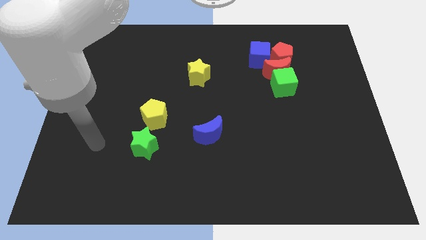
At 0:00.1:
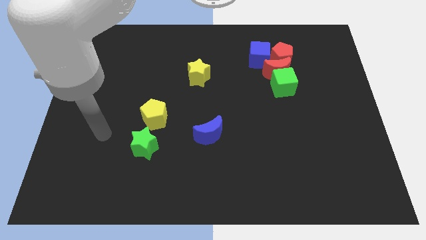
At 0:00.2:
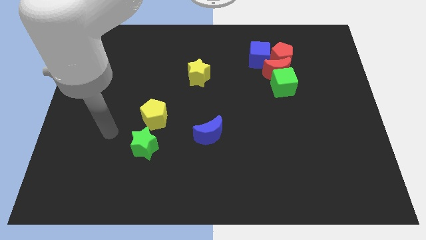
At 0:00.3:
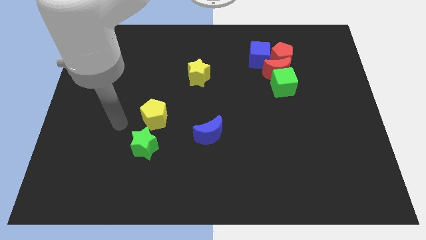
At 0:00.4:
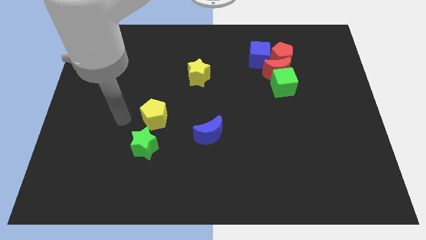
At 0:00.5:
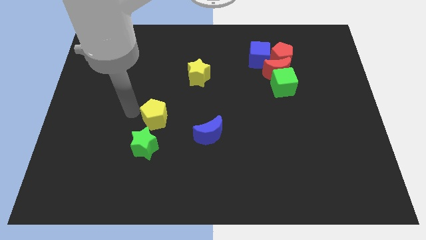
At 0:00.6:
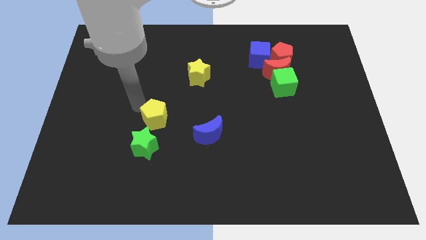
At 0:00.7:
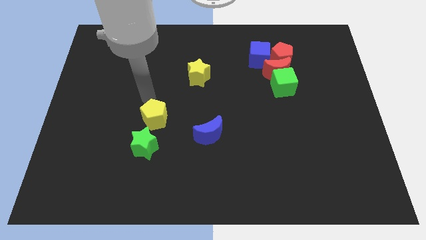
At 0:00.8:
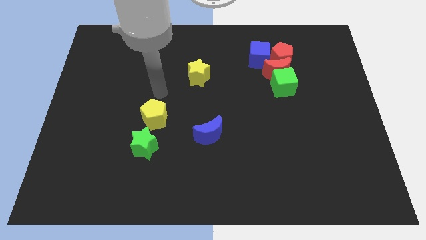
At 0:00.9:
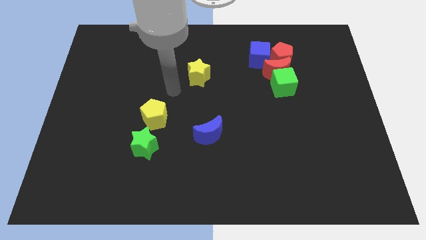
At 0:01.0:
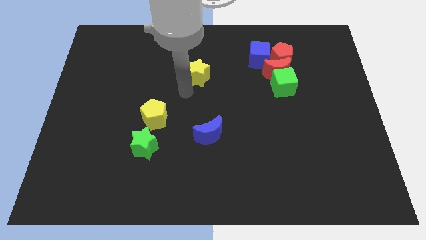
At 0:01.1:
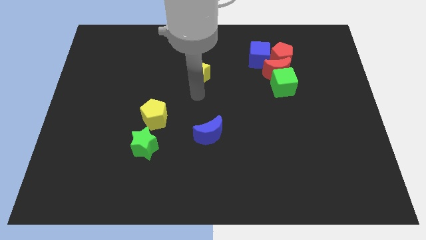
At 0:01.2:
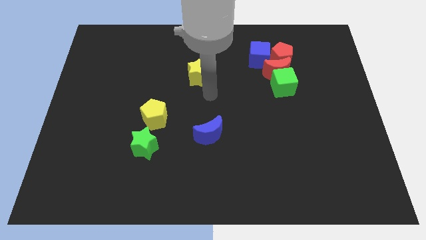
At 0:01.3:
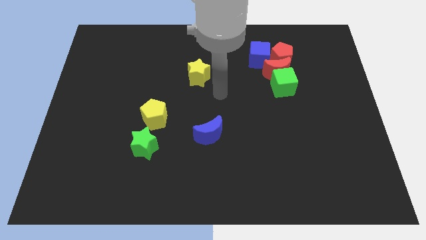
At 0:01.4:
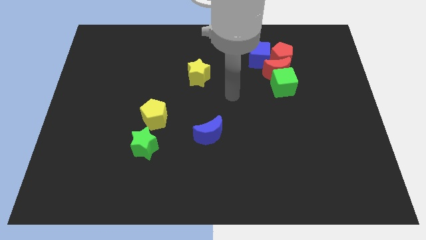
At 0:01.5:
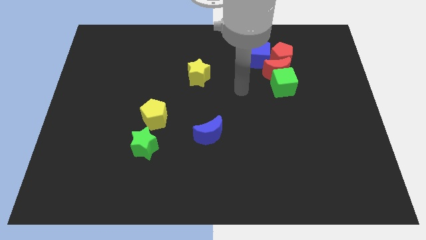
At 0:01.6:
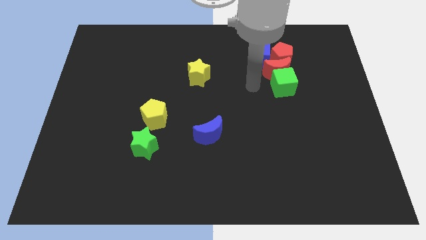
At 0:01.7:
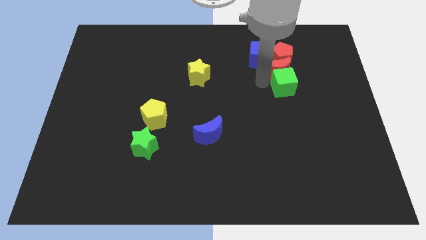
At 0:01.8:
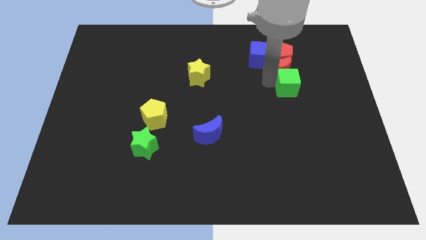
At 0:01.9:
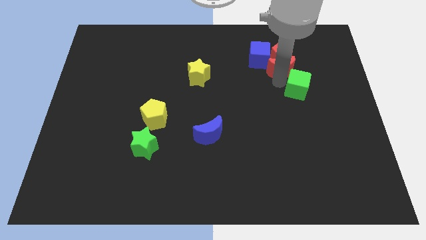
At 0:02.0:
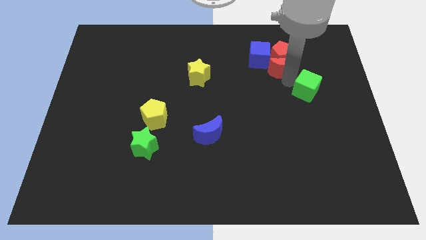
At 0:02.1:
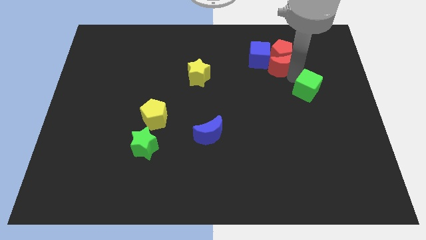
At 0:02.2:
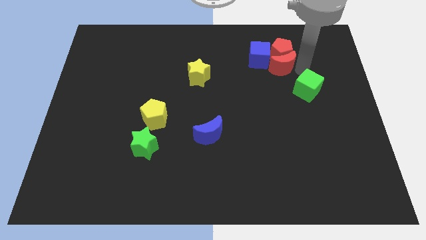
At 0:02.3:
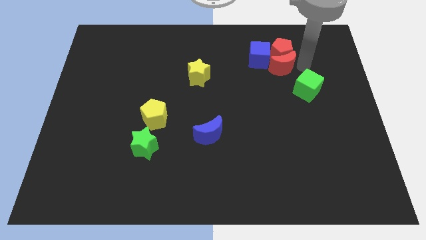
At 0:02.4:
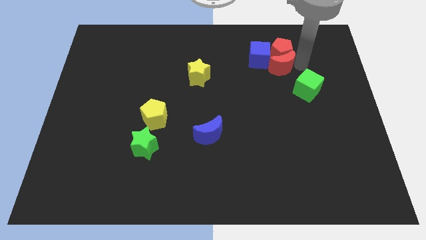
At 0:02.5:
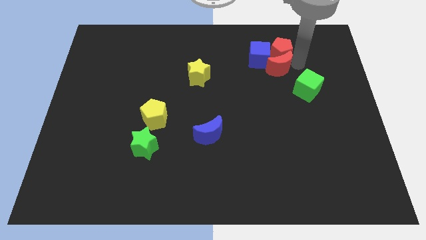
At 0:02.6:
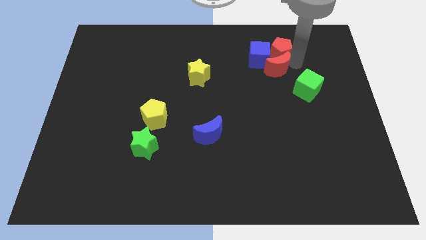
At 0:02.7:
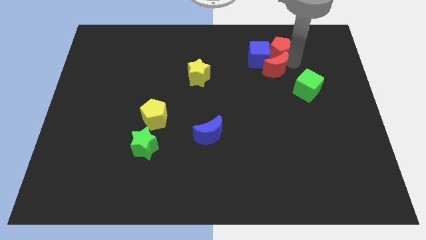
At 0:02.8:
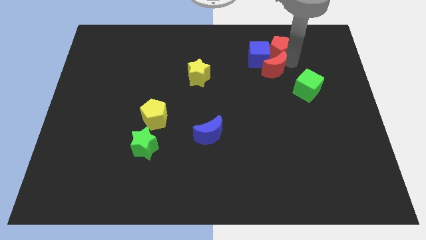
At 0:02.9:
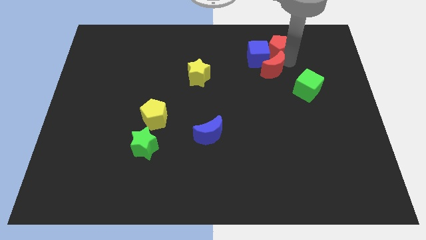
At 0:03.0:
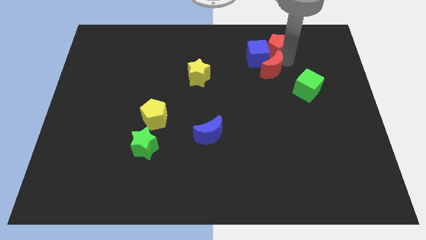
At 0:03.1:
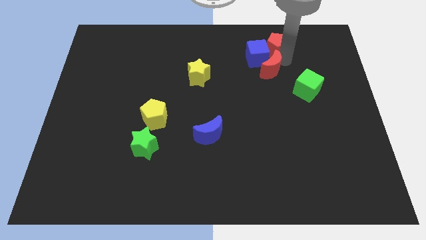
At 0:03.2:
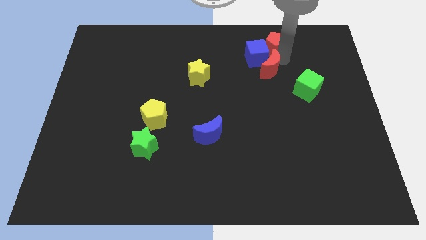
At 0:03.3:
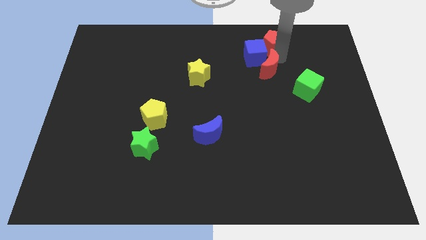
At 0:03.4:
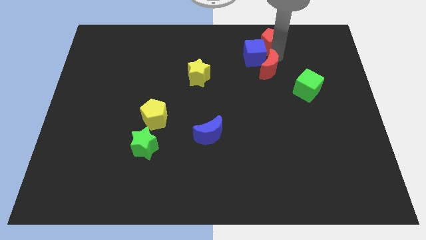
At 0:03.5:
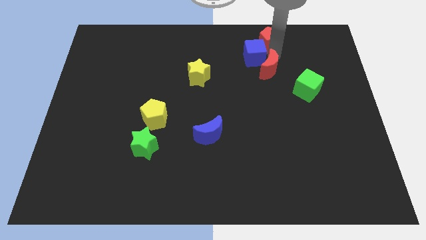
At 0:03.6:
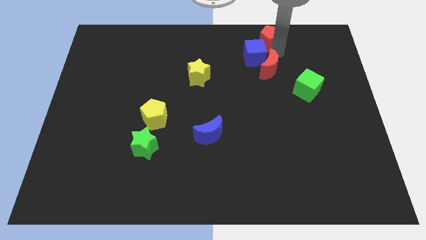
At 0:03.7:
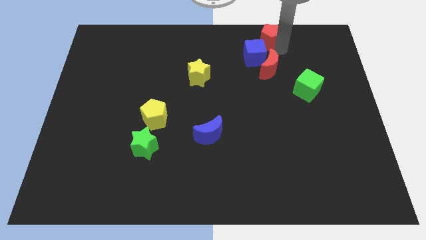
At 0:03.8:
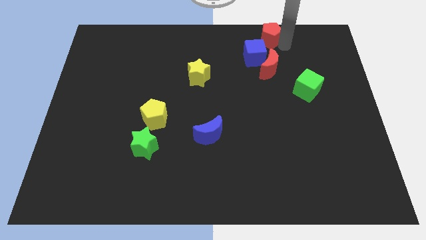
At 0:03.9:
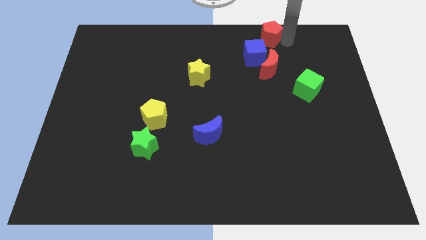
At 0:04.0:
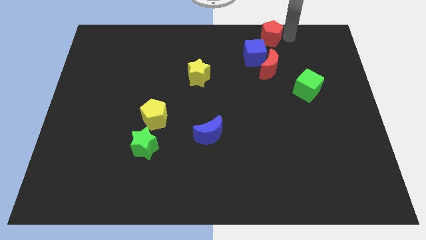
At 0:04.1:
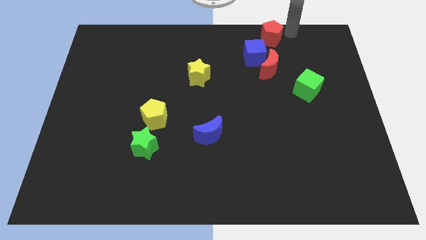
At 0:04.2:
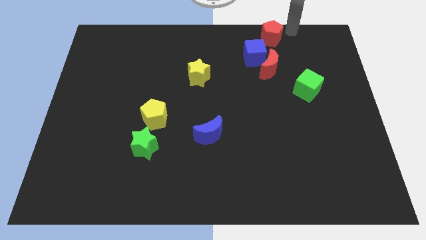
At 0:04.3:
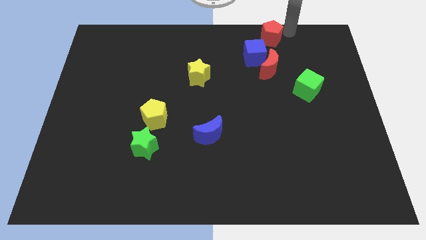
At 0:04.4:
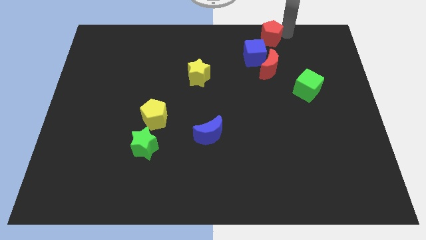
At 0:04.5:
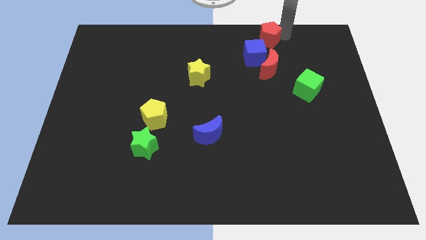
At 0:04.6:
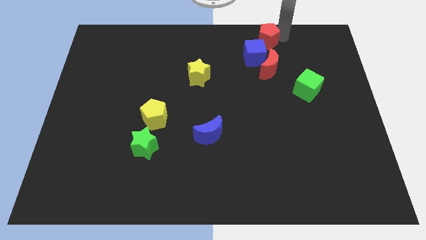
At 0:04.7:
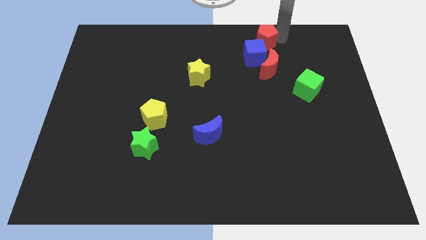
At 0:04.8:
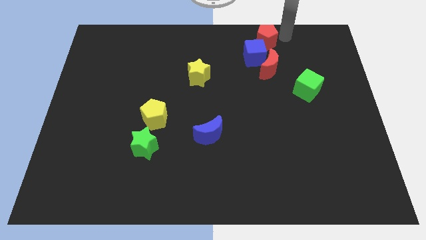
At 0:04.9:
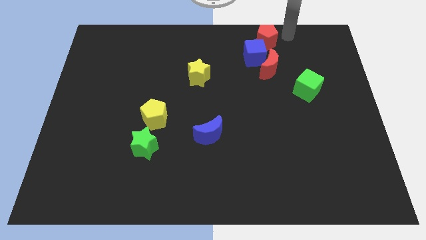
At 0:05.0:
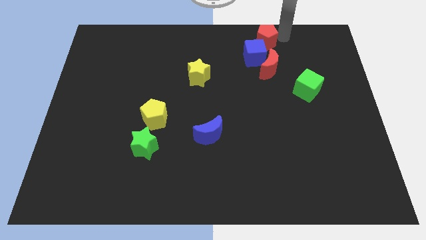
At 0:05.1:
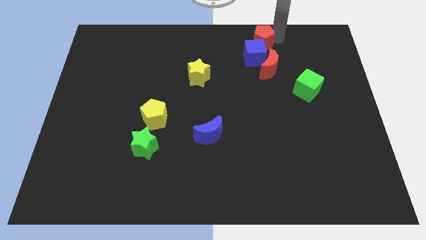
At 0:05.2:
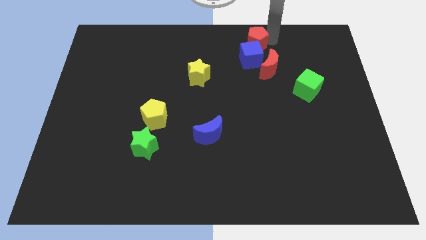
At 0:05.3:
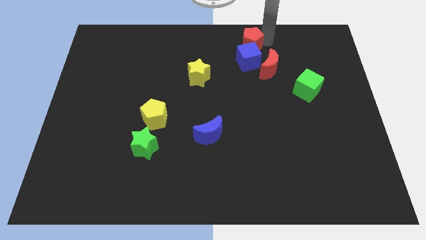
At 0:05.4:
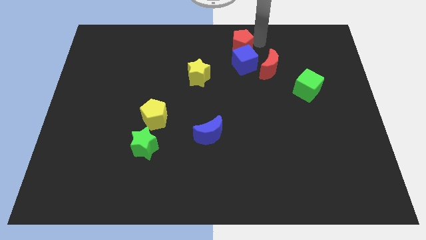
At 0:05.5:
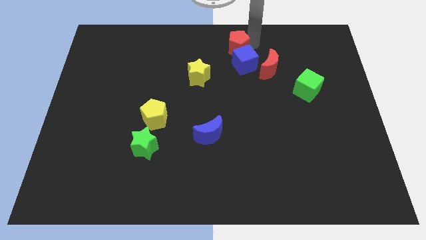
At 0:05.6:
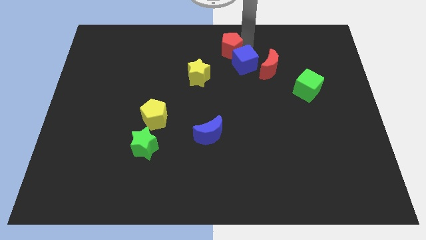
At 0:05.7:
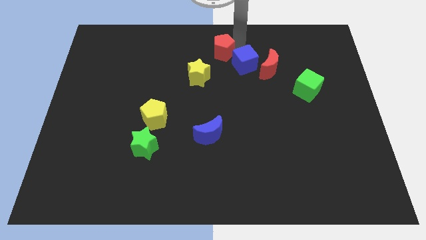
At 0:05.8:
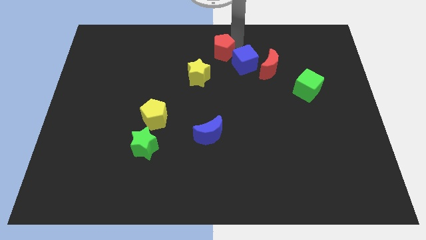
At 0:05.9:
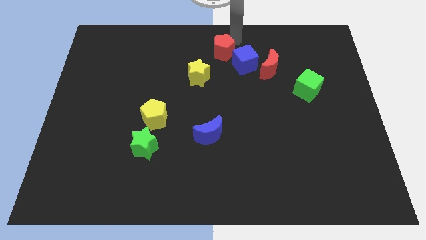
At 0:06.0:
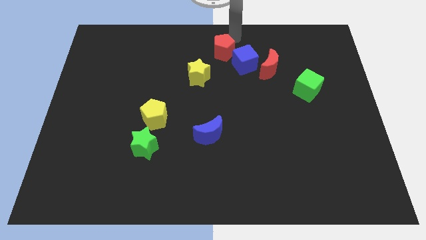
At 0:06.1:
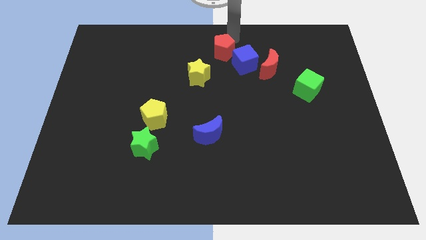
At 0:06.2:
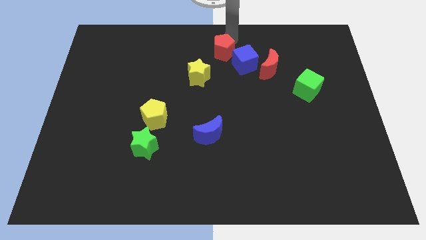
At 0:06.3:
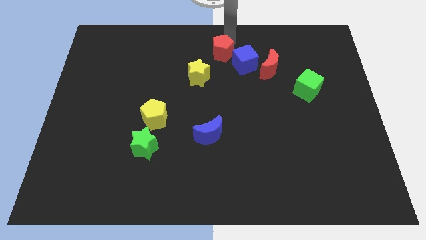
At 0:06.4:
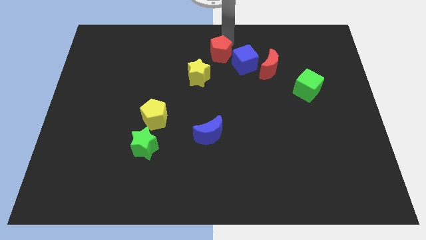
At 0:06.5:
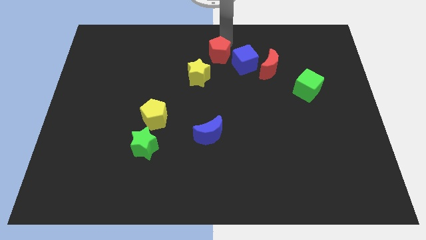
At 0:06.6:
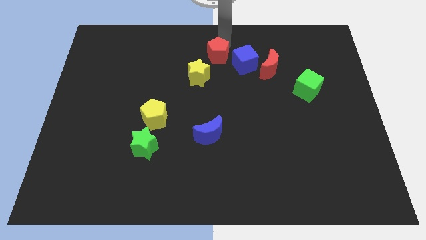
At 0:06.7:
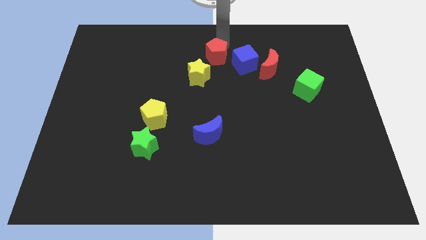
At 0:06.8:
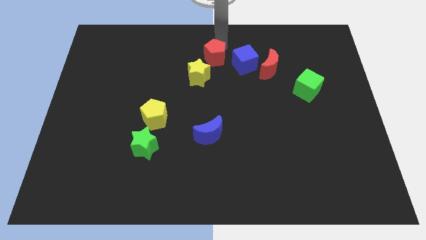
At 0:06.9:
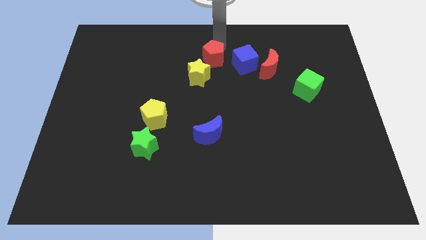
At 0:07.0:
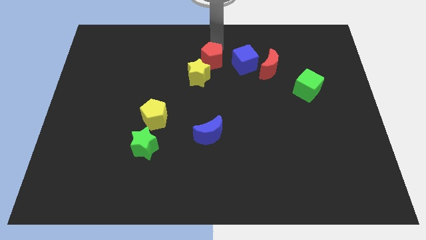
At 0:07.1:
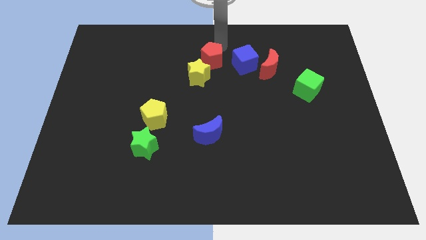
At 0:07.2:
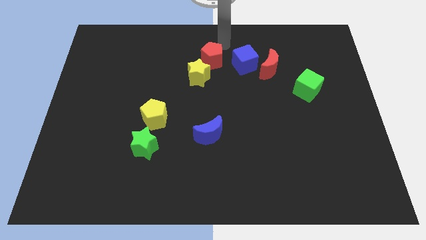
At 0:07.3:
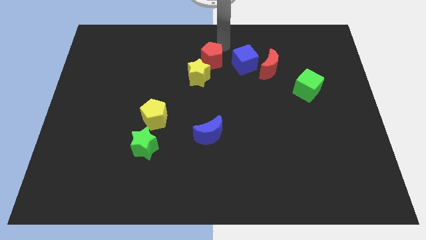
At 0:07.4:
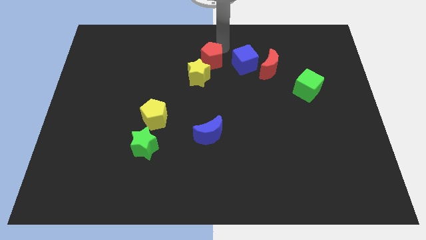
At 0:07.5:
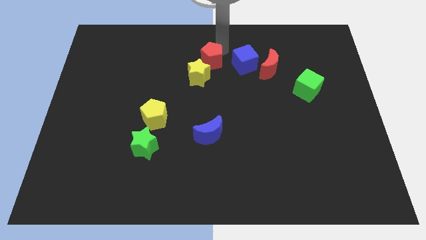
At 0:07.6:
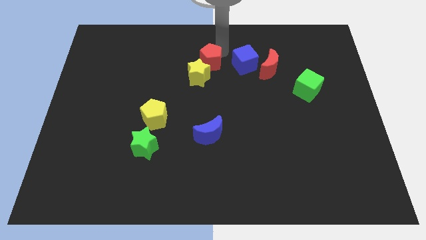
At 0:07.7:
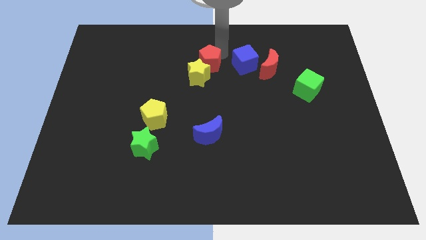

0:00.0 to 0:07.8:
slide the red pentagon towards the yellow star
